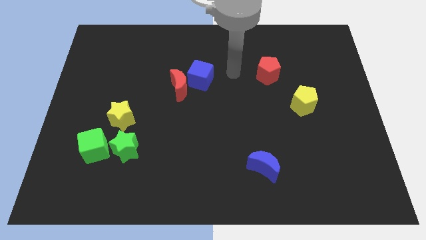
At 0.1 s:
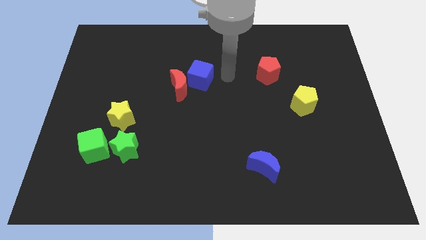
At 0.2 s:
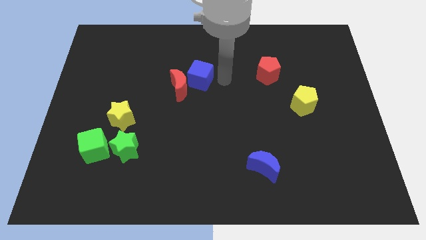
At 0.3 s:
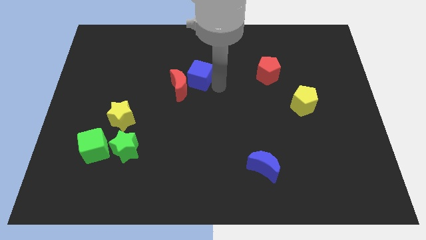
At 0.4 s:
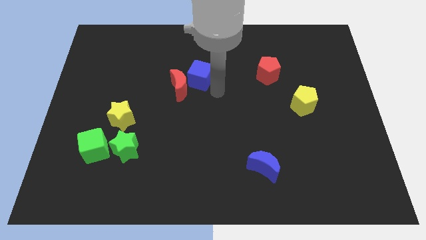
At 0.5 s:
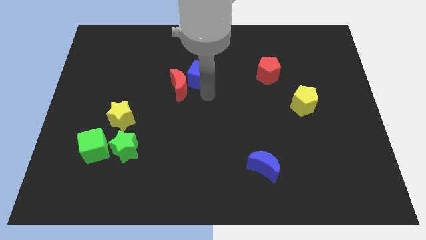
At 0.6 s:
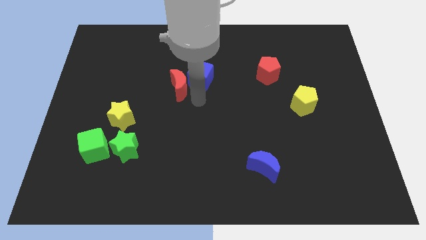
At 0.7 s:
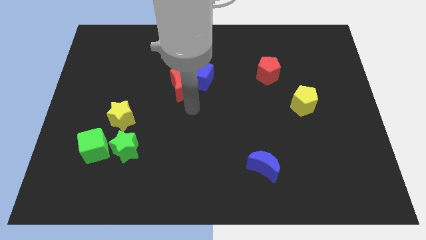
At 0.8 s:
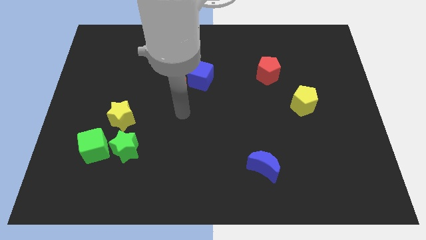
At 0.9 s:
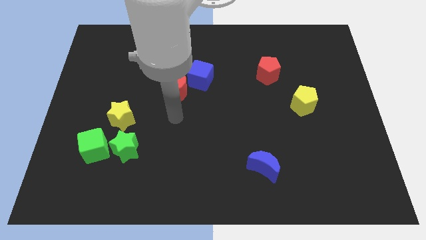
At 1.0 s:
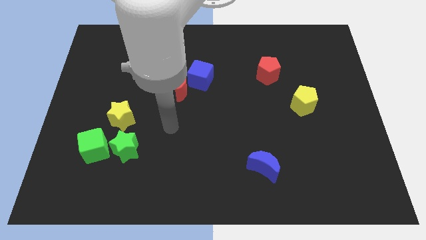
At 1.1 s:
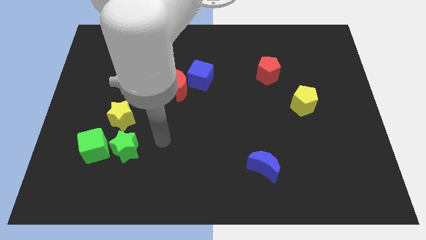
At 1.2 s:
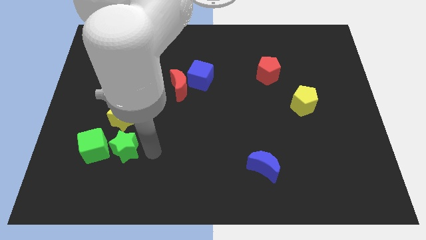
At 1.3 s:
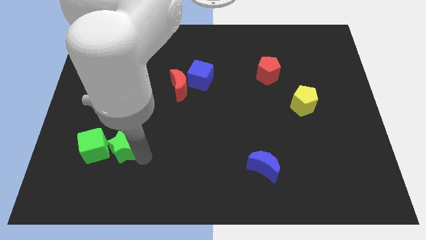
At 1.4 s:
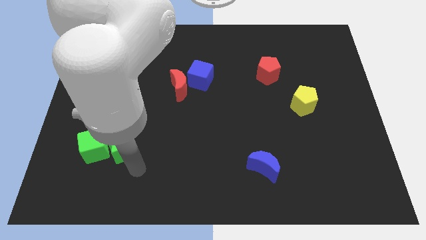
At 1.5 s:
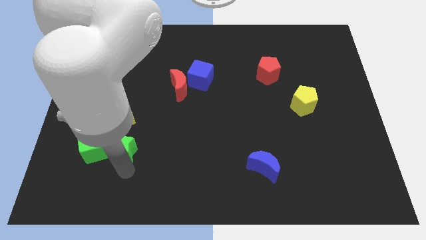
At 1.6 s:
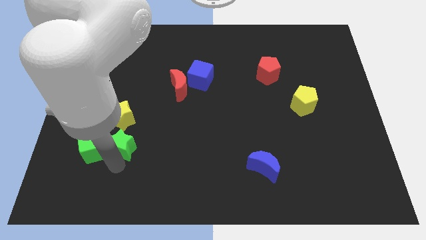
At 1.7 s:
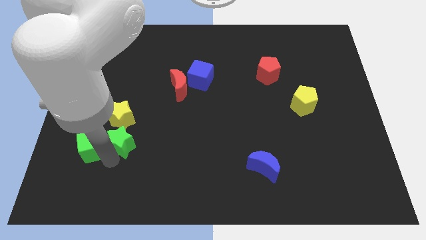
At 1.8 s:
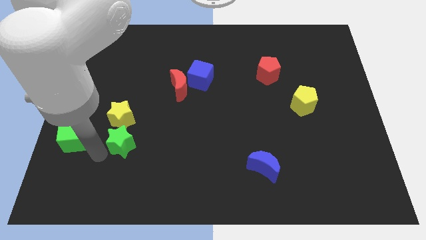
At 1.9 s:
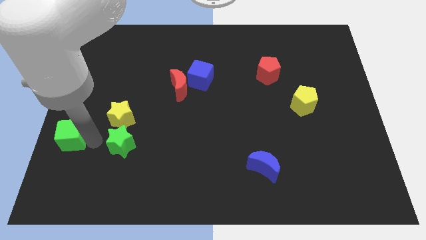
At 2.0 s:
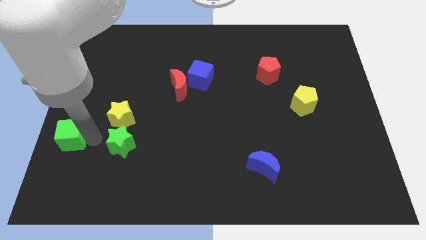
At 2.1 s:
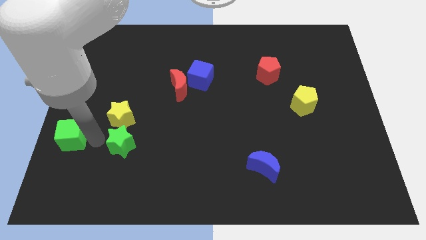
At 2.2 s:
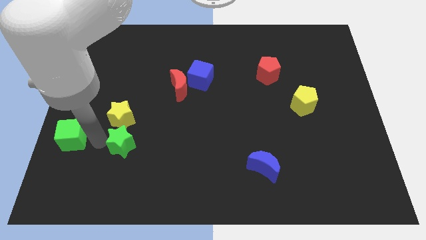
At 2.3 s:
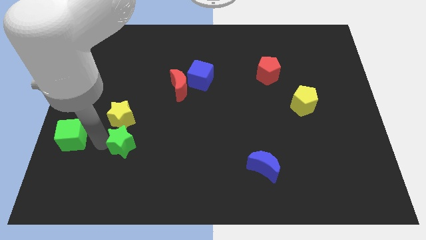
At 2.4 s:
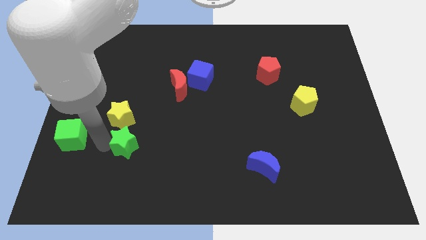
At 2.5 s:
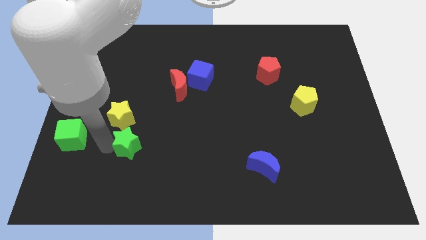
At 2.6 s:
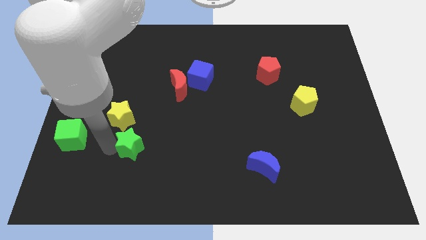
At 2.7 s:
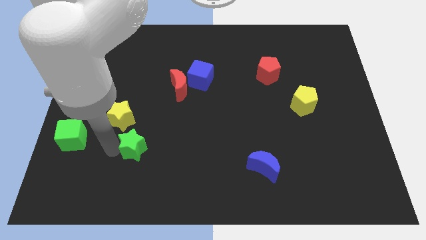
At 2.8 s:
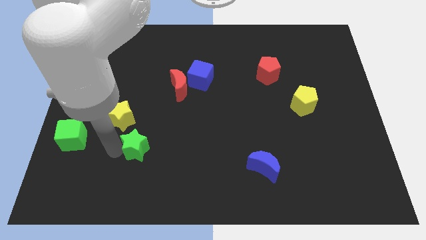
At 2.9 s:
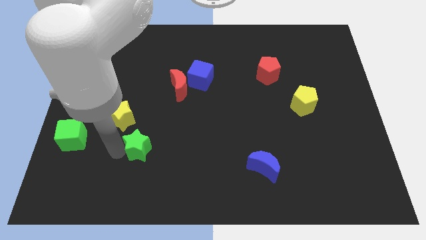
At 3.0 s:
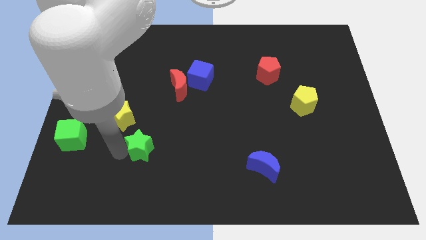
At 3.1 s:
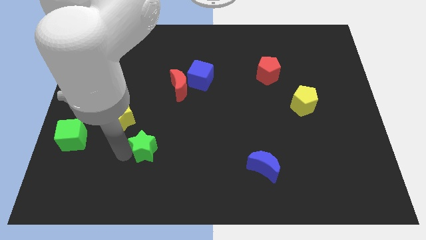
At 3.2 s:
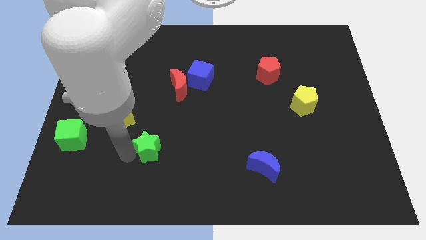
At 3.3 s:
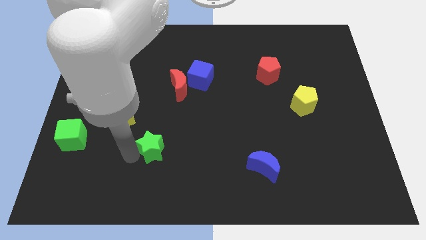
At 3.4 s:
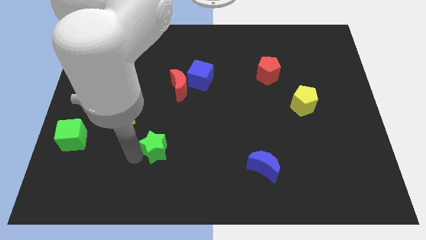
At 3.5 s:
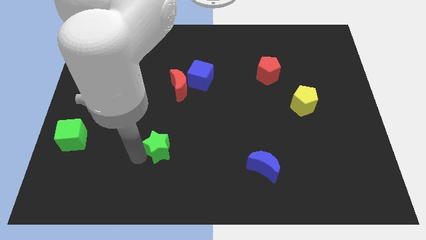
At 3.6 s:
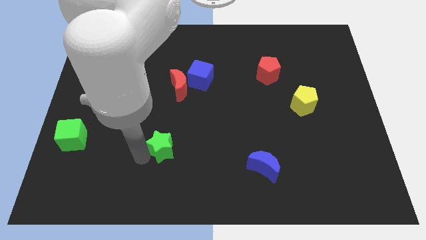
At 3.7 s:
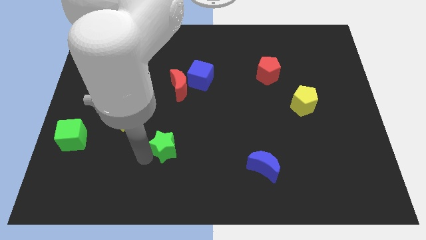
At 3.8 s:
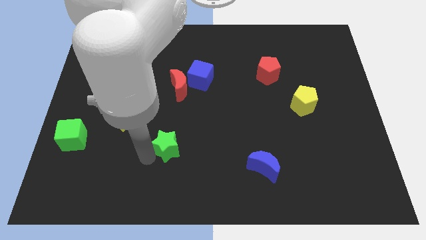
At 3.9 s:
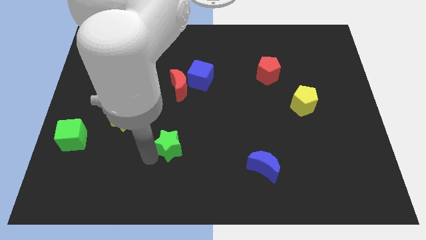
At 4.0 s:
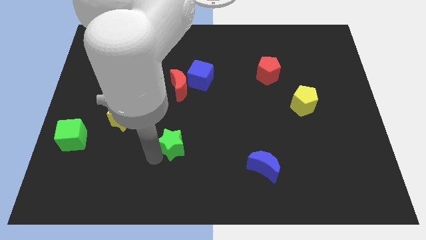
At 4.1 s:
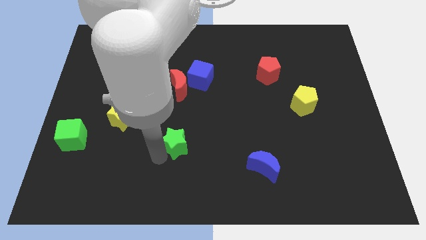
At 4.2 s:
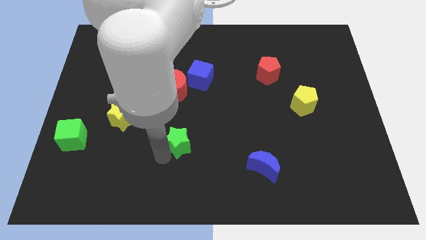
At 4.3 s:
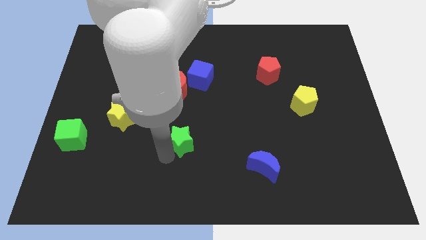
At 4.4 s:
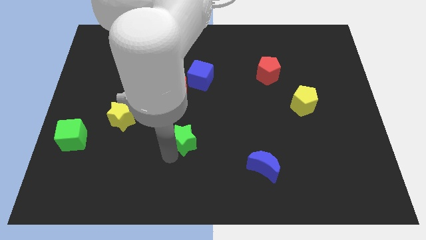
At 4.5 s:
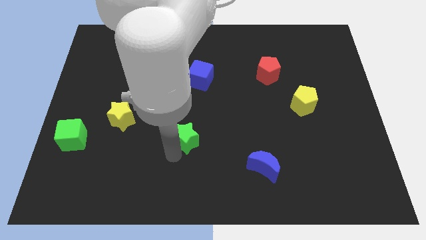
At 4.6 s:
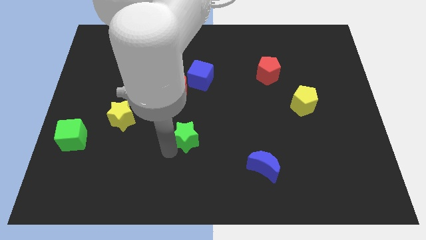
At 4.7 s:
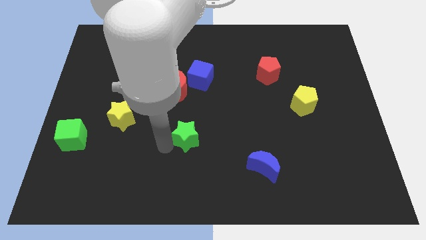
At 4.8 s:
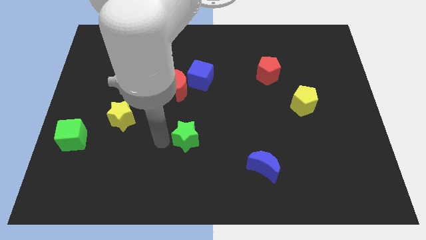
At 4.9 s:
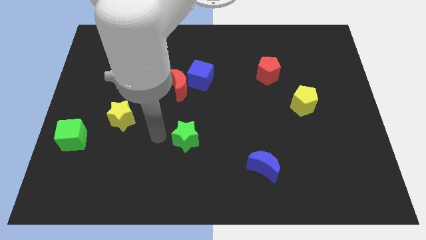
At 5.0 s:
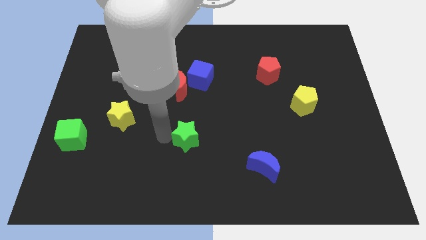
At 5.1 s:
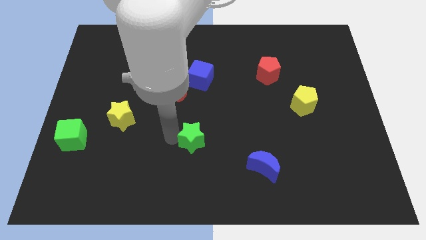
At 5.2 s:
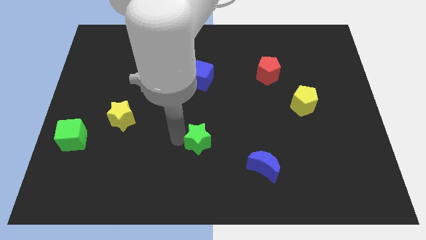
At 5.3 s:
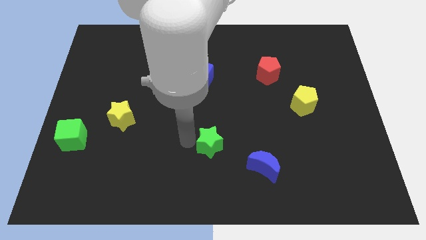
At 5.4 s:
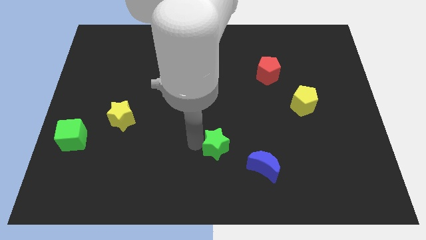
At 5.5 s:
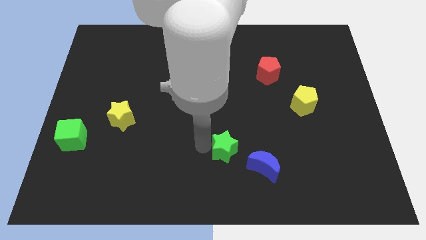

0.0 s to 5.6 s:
move the green star right

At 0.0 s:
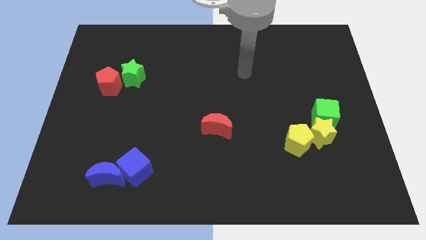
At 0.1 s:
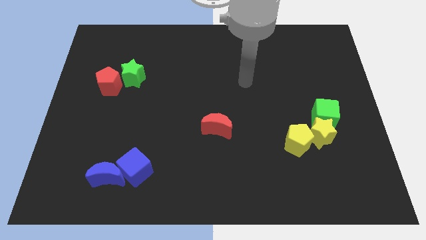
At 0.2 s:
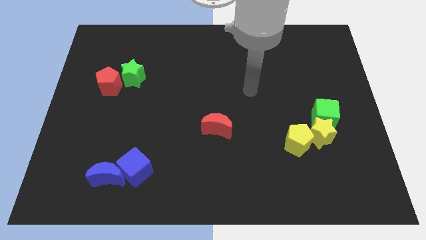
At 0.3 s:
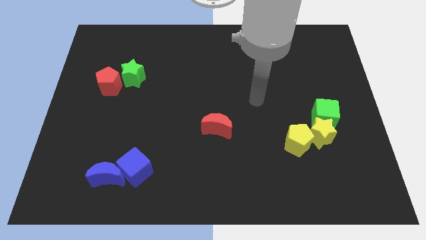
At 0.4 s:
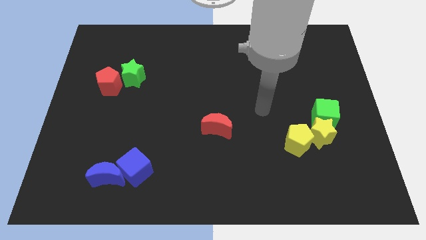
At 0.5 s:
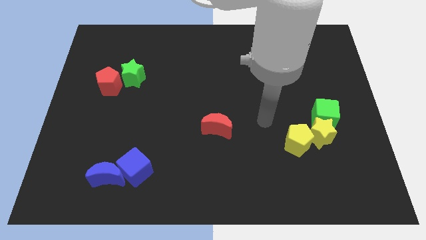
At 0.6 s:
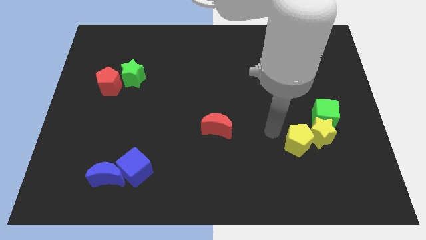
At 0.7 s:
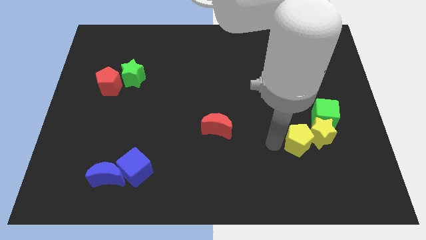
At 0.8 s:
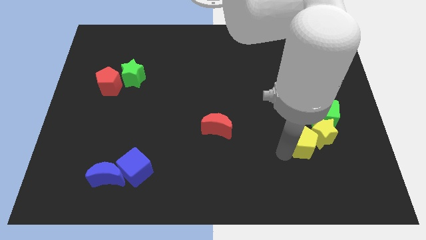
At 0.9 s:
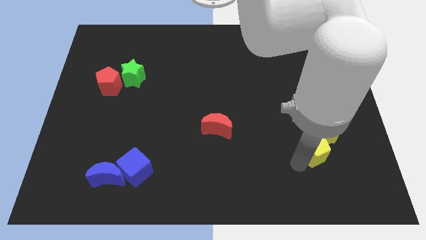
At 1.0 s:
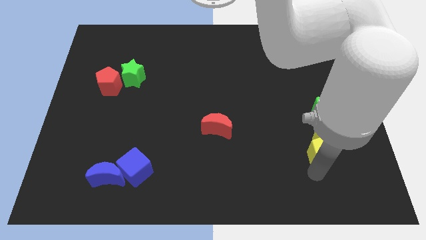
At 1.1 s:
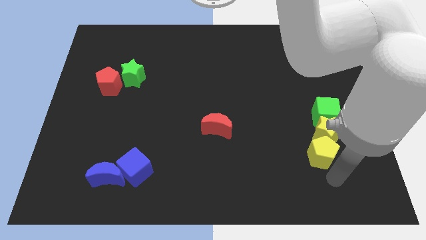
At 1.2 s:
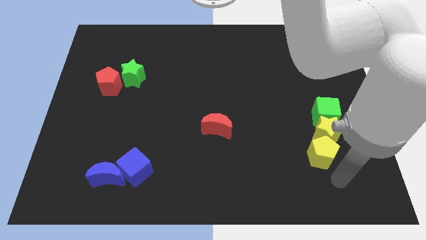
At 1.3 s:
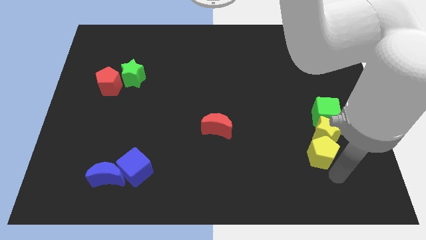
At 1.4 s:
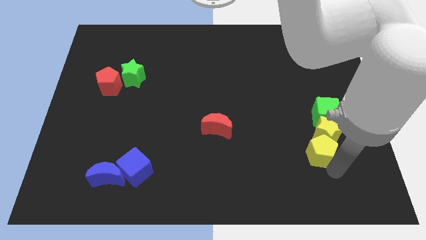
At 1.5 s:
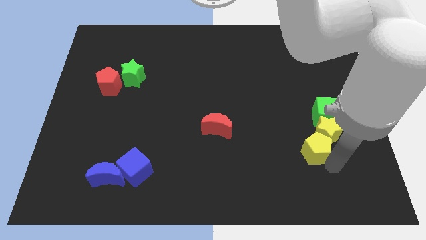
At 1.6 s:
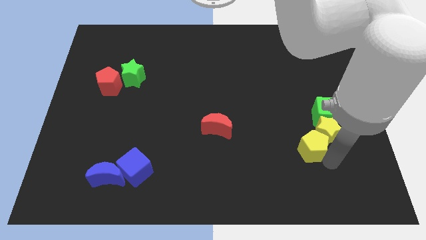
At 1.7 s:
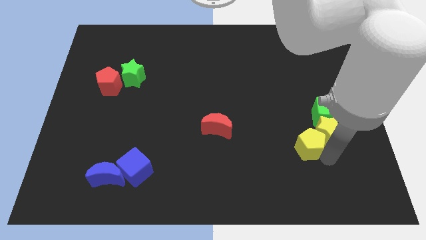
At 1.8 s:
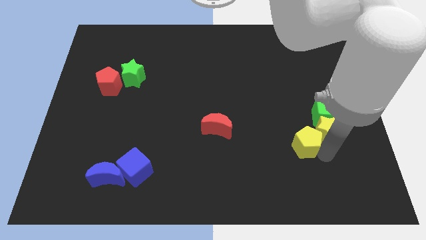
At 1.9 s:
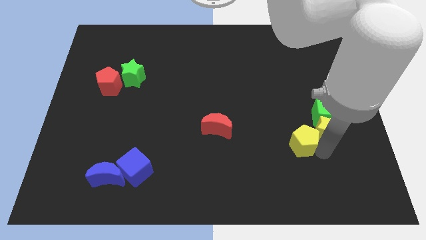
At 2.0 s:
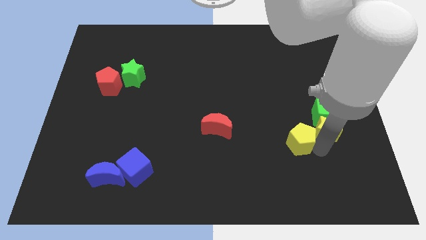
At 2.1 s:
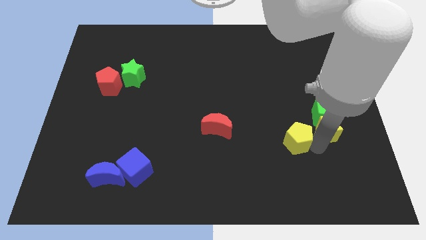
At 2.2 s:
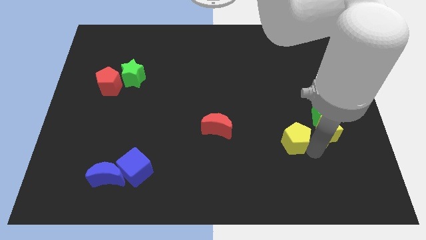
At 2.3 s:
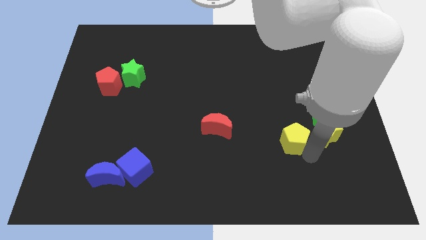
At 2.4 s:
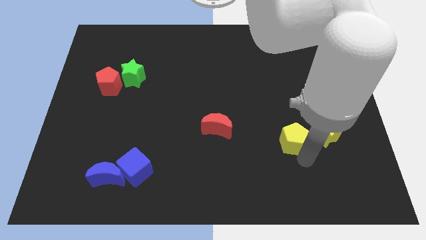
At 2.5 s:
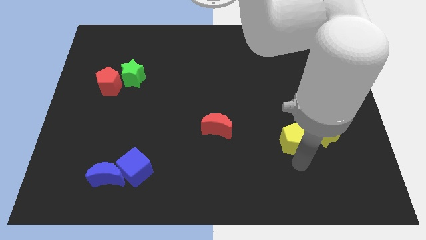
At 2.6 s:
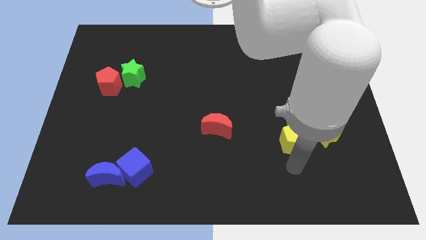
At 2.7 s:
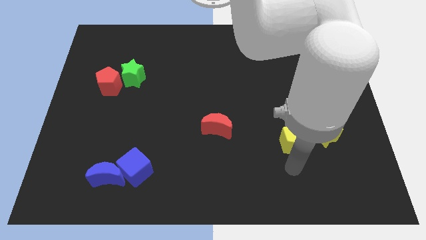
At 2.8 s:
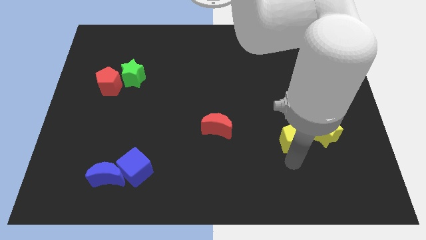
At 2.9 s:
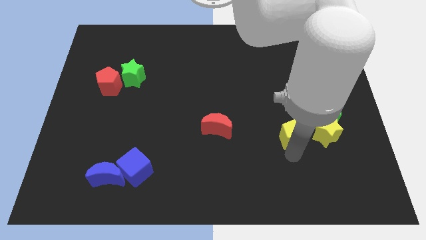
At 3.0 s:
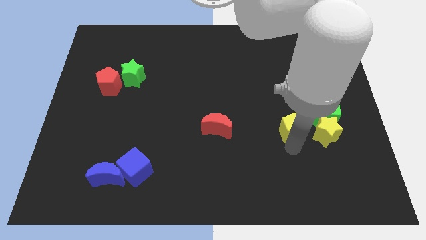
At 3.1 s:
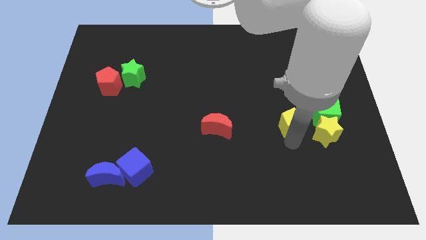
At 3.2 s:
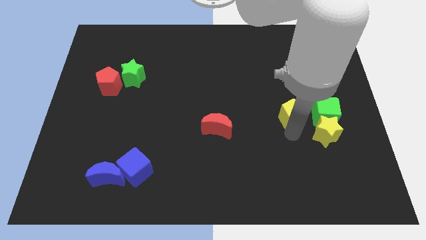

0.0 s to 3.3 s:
slide the yellow pentagon a little upwards
